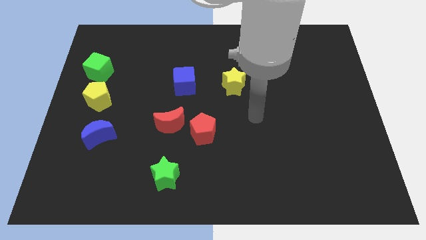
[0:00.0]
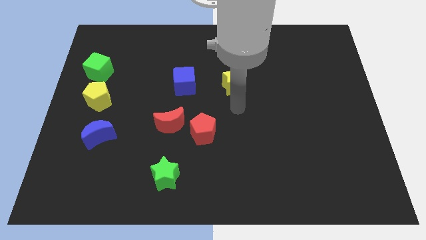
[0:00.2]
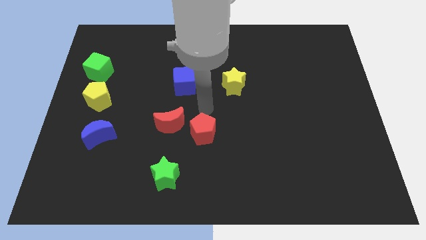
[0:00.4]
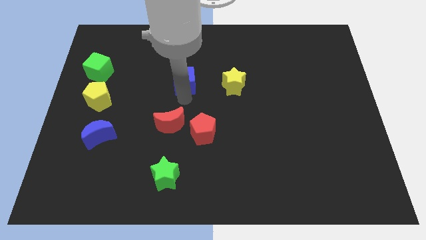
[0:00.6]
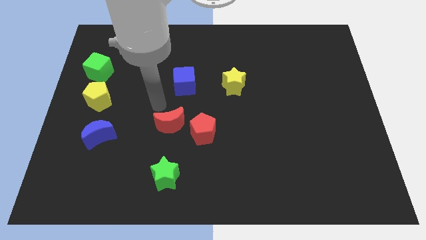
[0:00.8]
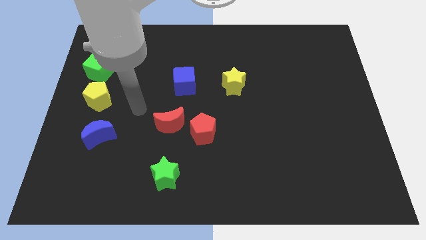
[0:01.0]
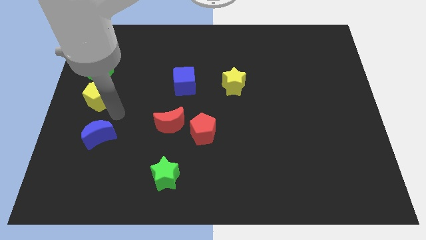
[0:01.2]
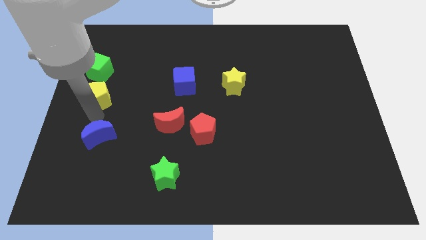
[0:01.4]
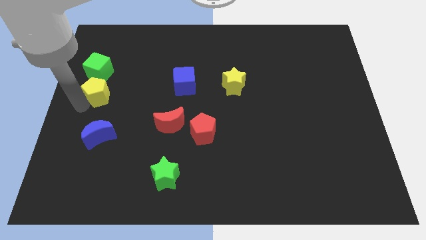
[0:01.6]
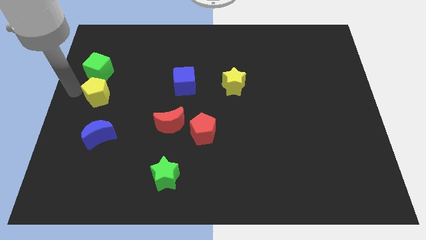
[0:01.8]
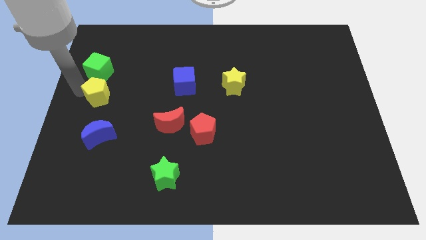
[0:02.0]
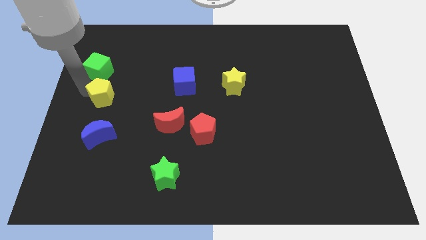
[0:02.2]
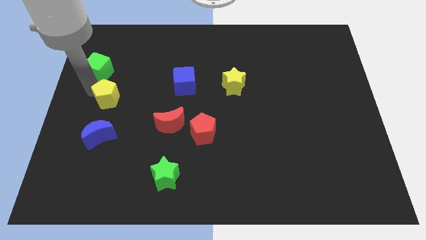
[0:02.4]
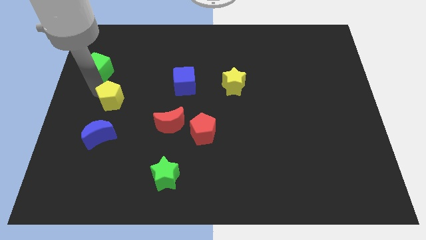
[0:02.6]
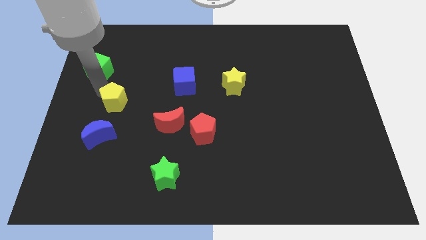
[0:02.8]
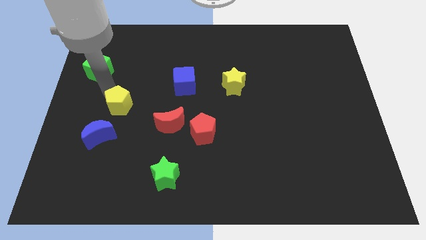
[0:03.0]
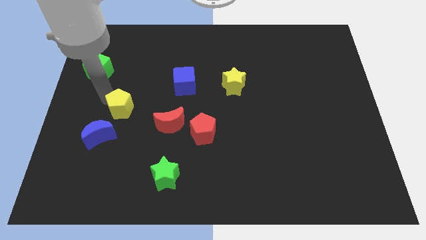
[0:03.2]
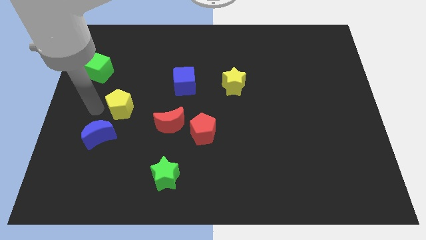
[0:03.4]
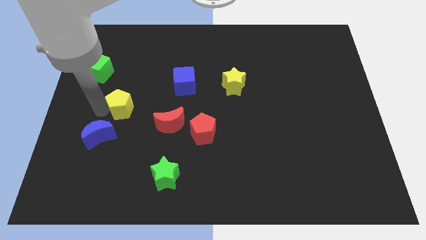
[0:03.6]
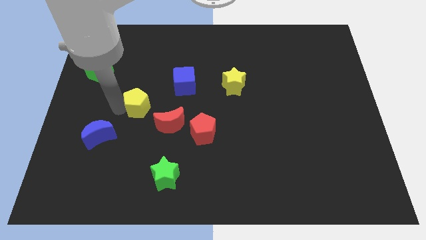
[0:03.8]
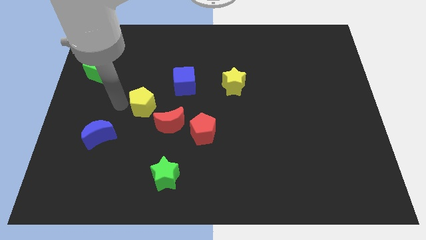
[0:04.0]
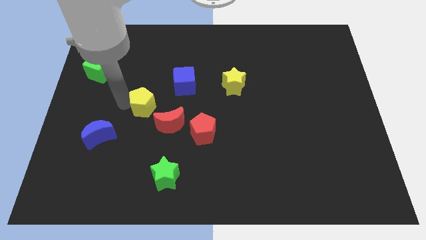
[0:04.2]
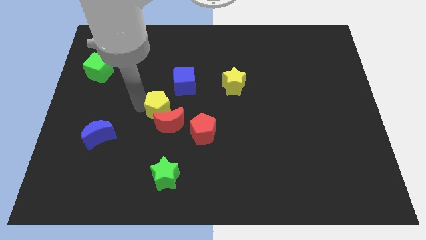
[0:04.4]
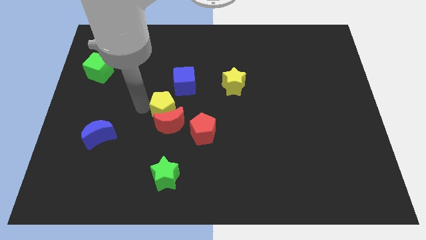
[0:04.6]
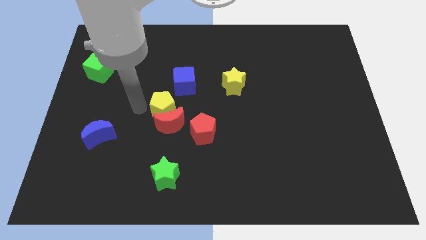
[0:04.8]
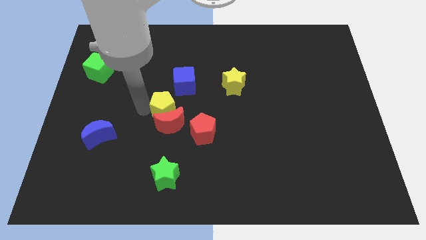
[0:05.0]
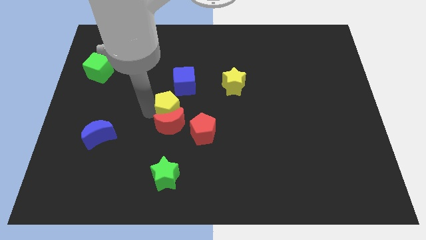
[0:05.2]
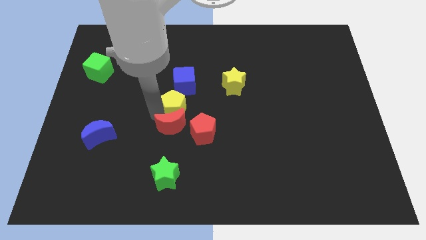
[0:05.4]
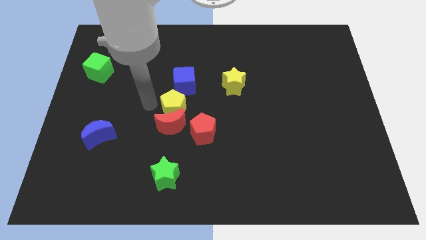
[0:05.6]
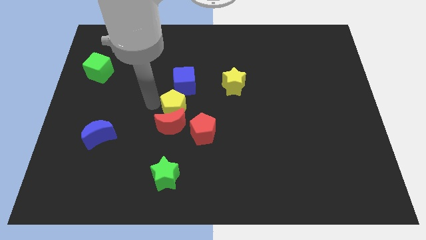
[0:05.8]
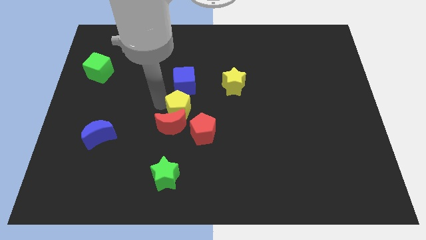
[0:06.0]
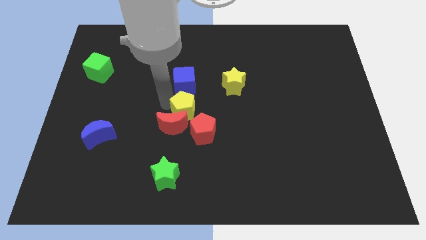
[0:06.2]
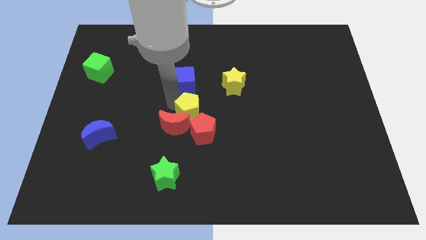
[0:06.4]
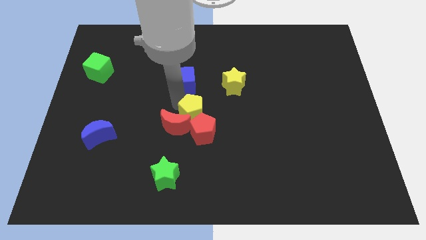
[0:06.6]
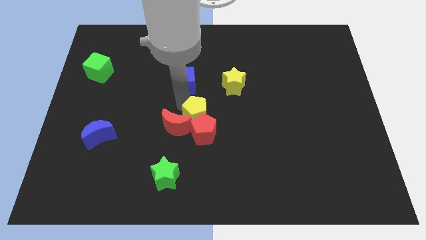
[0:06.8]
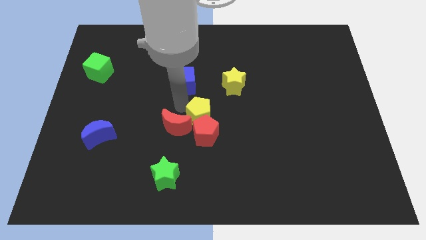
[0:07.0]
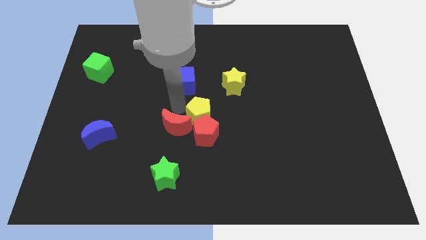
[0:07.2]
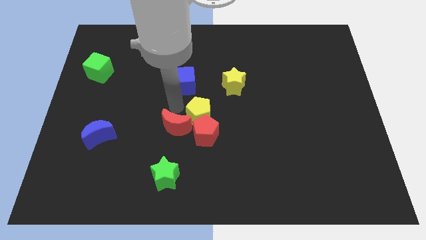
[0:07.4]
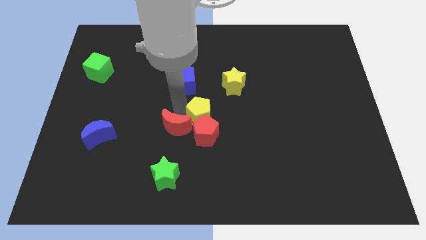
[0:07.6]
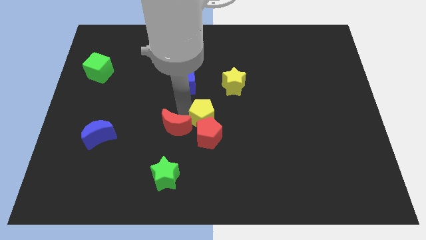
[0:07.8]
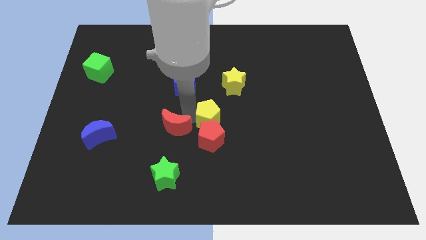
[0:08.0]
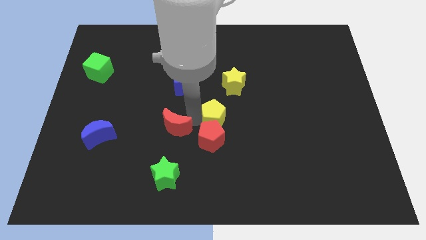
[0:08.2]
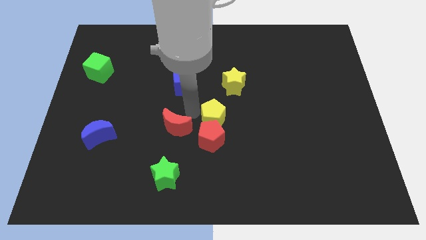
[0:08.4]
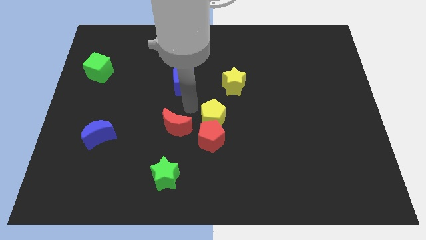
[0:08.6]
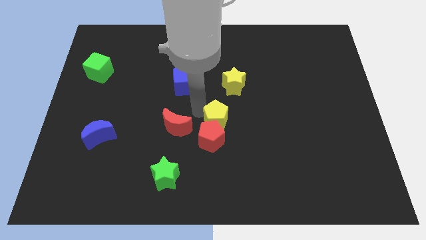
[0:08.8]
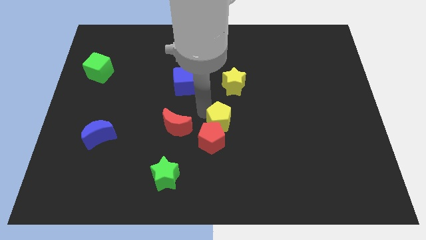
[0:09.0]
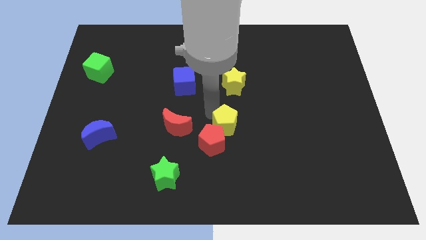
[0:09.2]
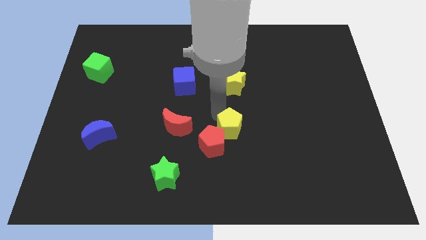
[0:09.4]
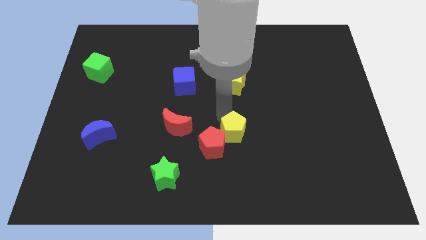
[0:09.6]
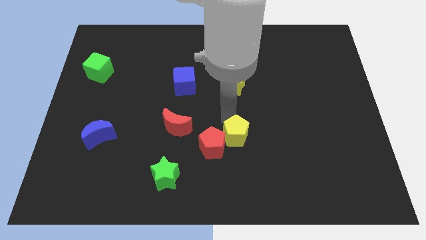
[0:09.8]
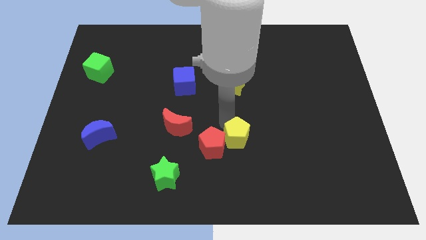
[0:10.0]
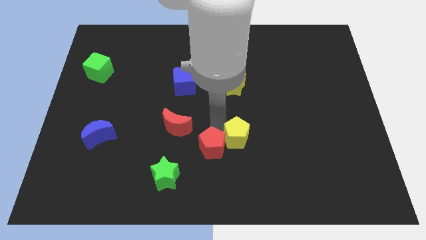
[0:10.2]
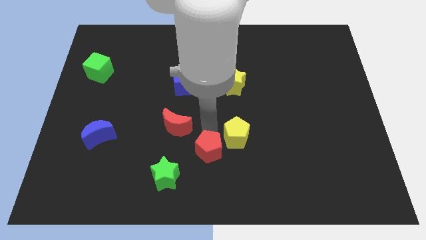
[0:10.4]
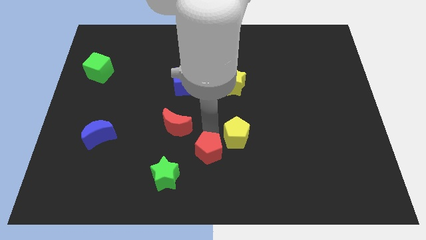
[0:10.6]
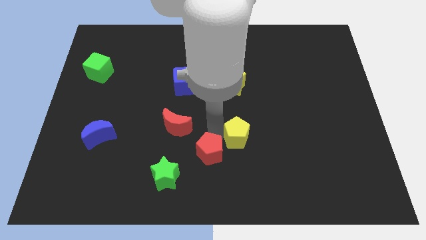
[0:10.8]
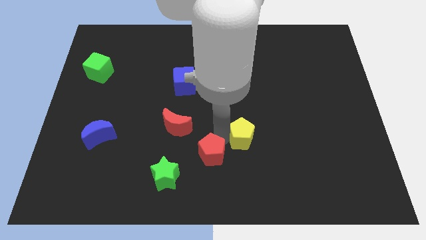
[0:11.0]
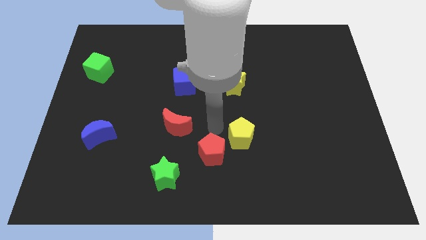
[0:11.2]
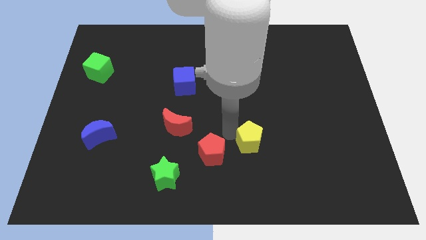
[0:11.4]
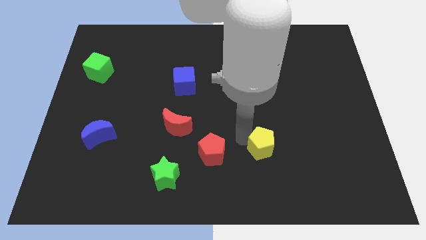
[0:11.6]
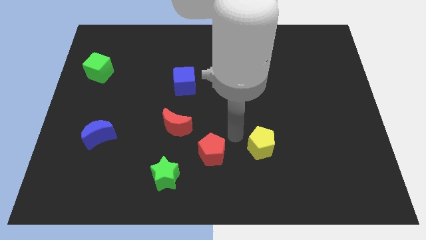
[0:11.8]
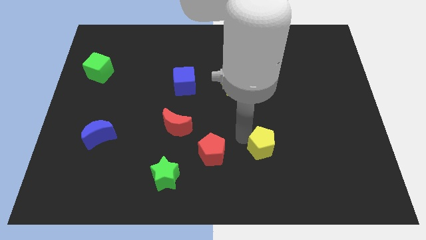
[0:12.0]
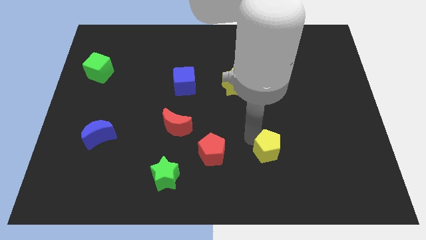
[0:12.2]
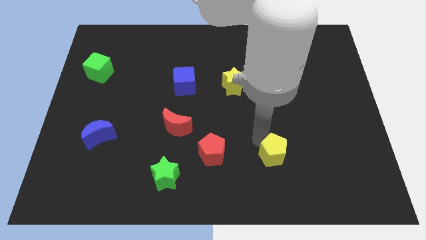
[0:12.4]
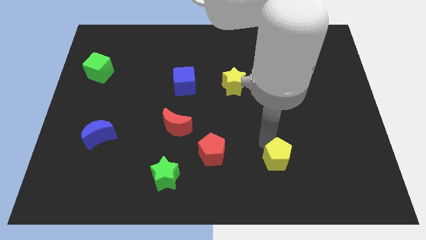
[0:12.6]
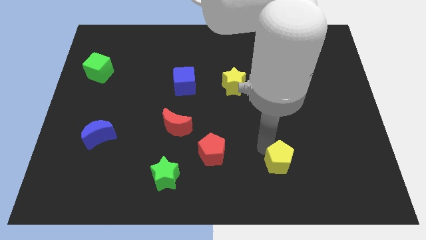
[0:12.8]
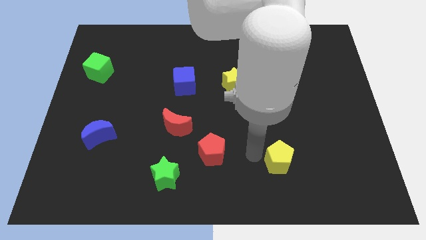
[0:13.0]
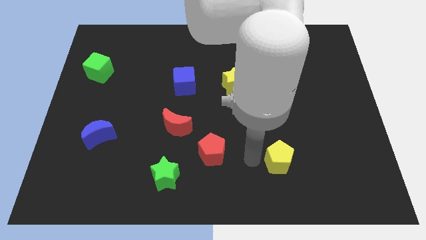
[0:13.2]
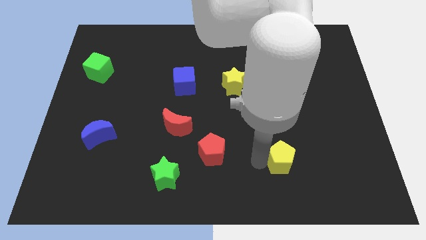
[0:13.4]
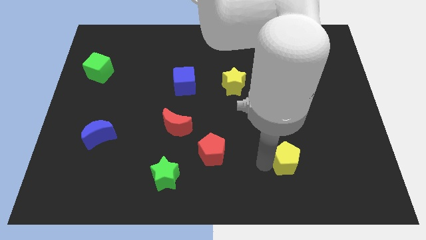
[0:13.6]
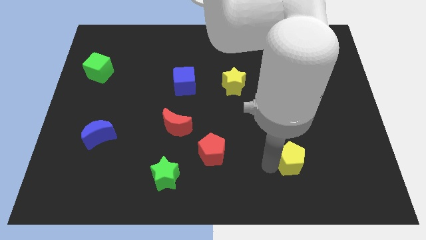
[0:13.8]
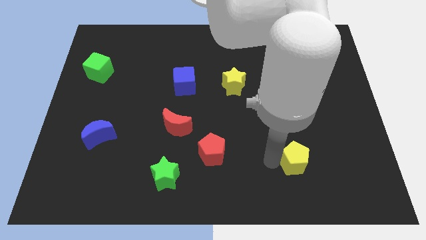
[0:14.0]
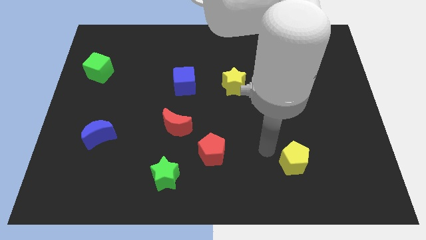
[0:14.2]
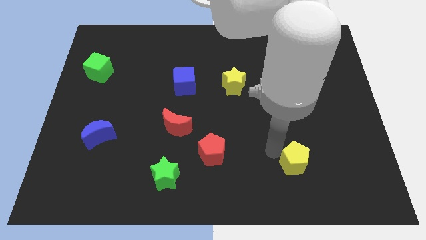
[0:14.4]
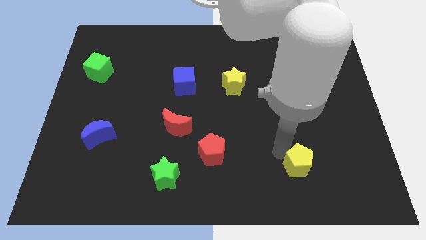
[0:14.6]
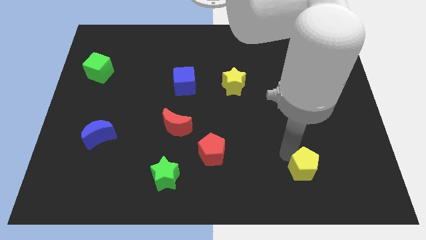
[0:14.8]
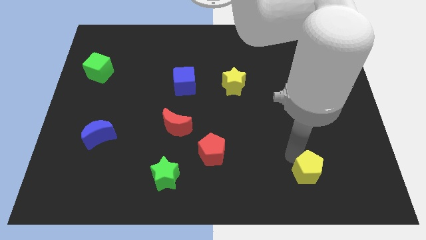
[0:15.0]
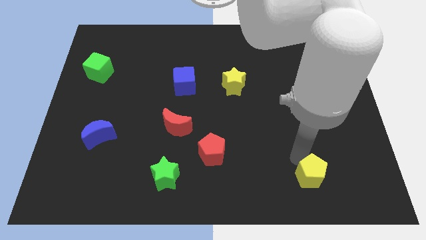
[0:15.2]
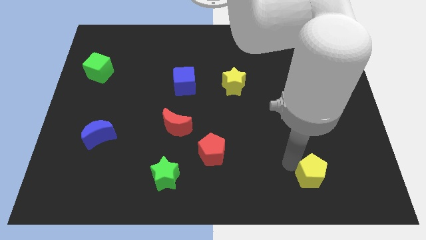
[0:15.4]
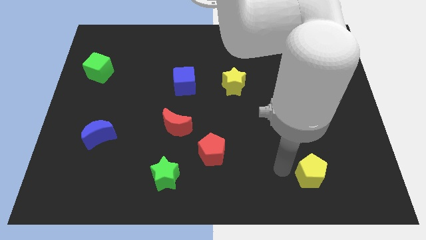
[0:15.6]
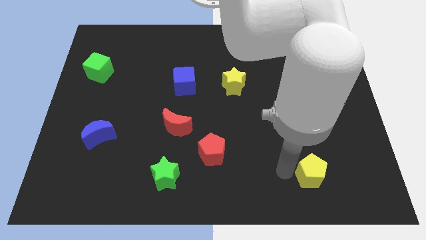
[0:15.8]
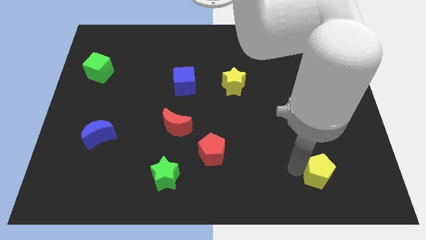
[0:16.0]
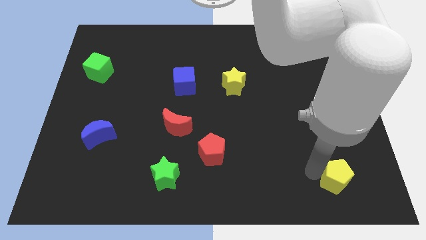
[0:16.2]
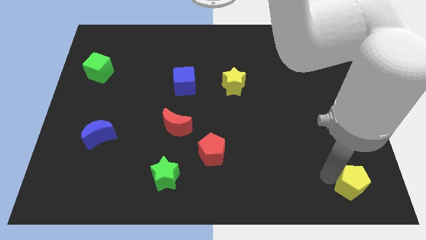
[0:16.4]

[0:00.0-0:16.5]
slide the yellow pentagon to the bottom right
